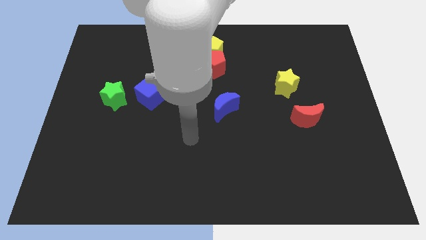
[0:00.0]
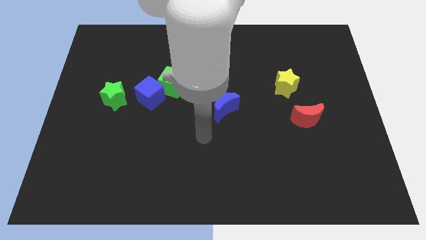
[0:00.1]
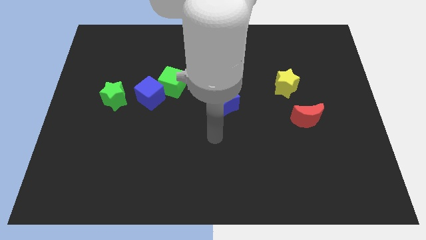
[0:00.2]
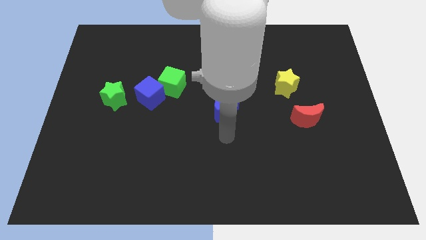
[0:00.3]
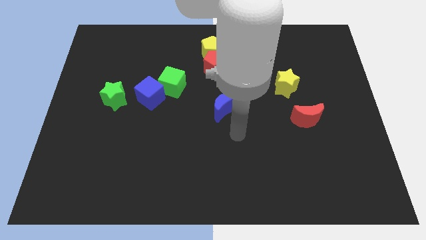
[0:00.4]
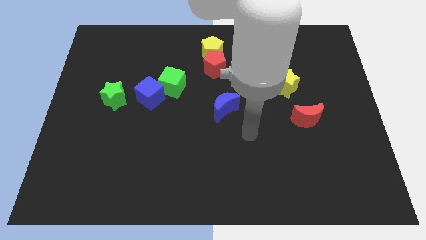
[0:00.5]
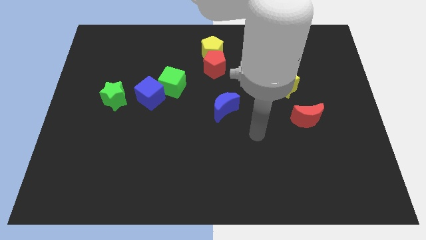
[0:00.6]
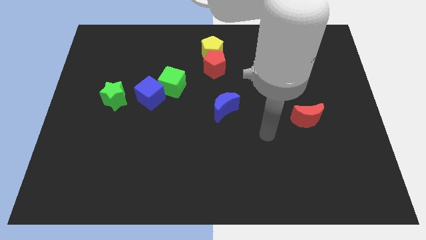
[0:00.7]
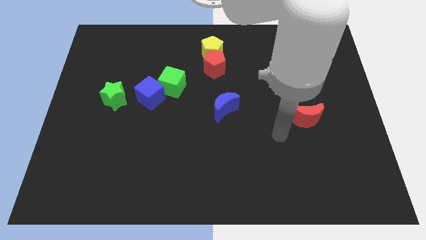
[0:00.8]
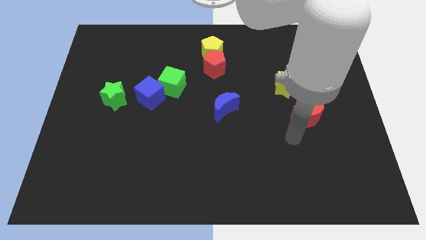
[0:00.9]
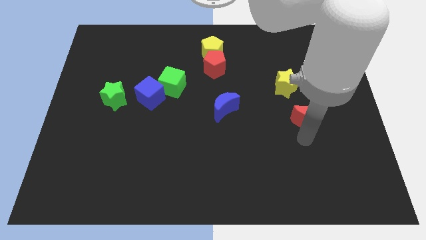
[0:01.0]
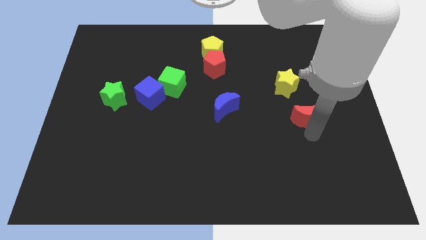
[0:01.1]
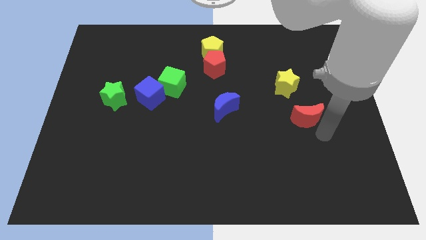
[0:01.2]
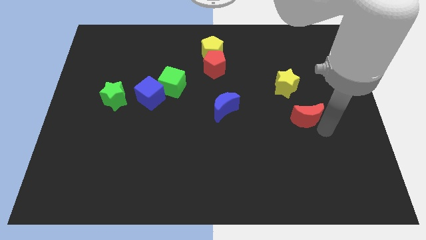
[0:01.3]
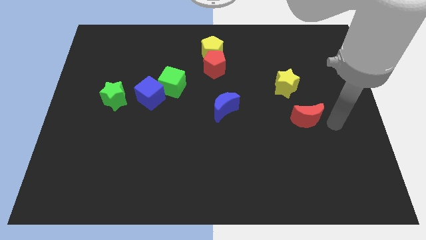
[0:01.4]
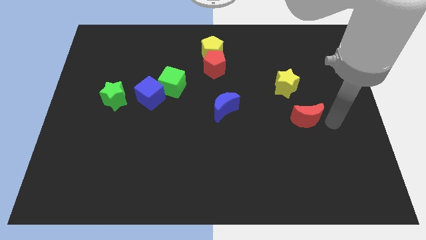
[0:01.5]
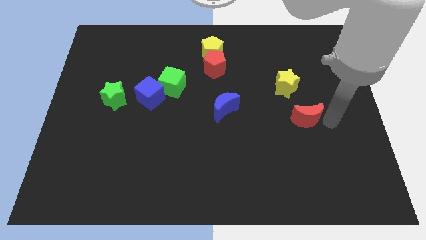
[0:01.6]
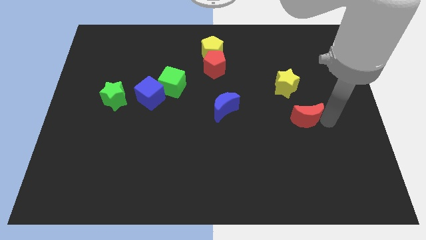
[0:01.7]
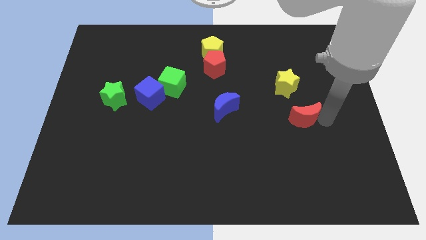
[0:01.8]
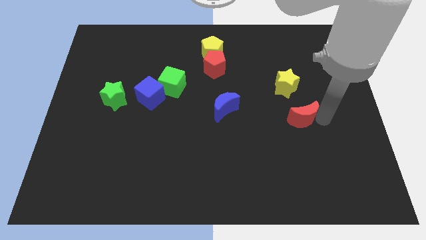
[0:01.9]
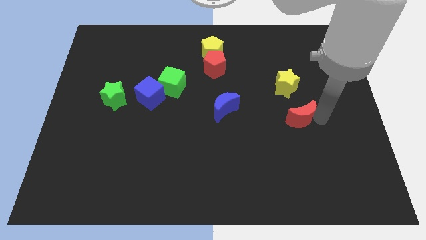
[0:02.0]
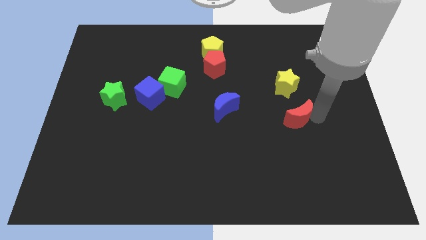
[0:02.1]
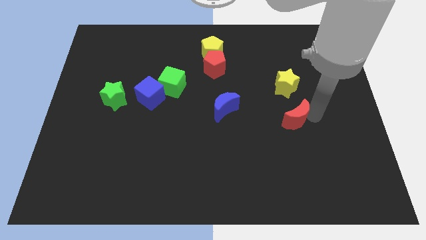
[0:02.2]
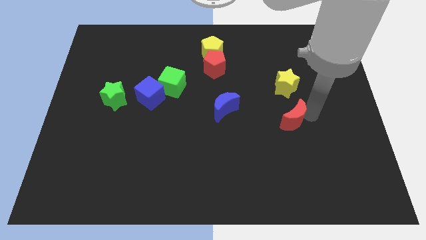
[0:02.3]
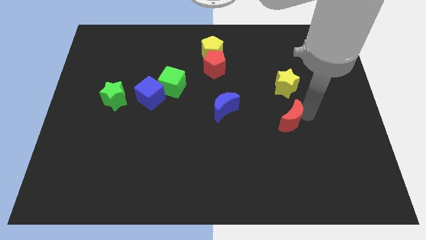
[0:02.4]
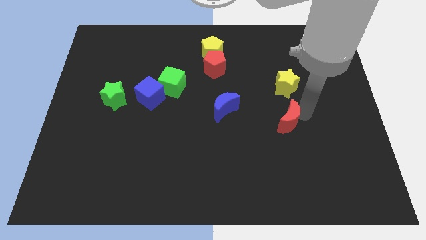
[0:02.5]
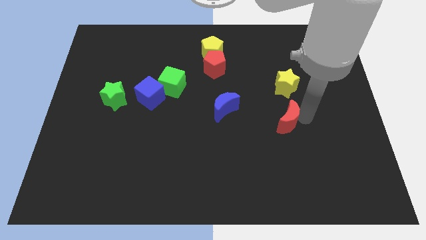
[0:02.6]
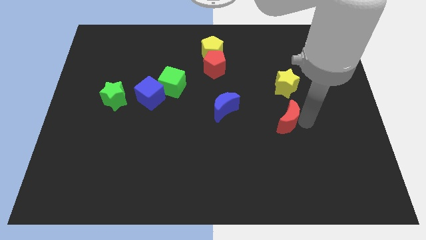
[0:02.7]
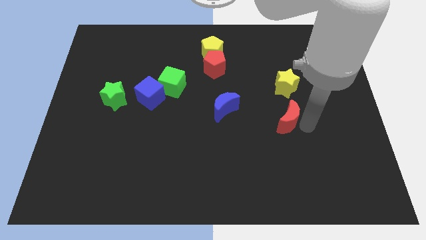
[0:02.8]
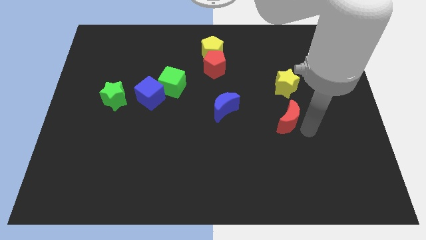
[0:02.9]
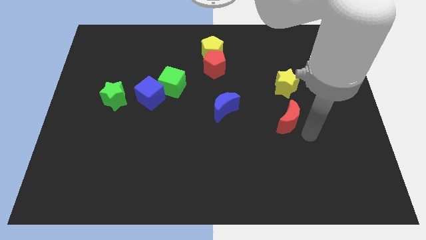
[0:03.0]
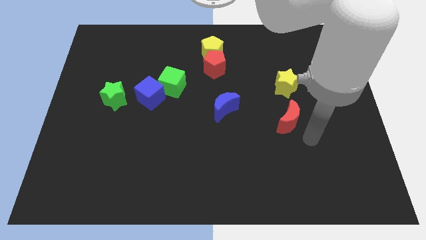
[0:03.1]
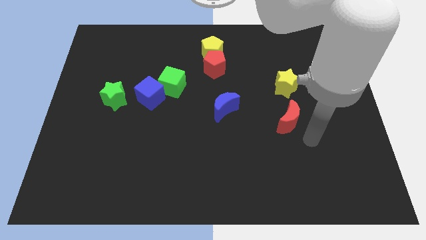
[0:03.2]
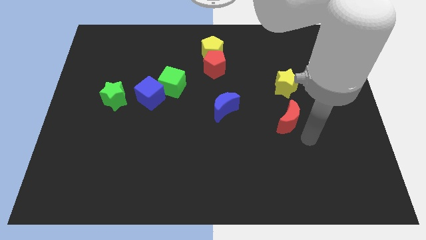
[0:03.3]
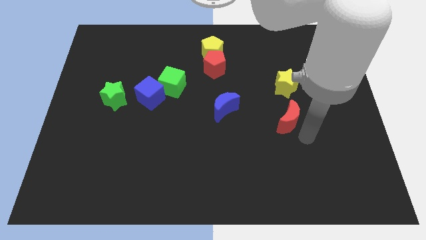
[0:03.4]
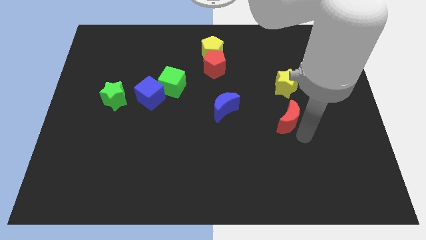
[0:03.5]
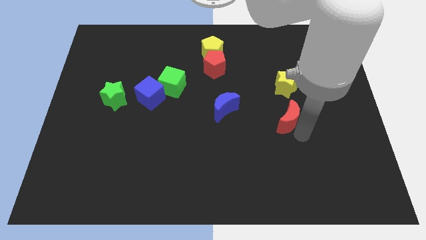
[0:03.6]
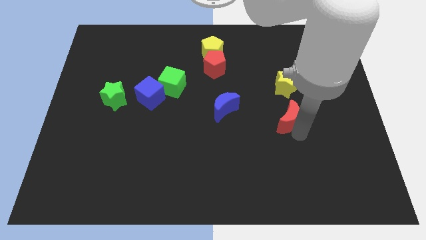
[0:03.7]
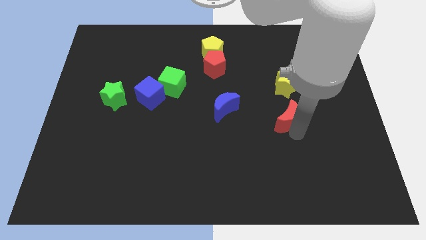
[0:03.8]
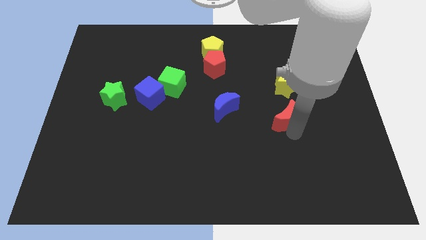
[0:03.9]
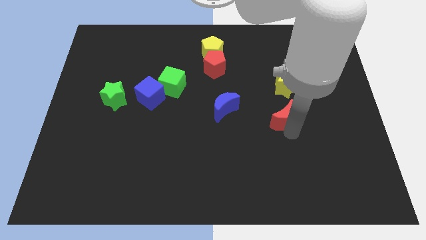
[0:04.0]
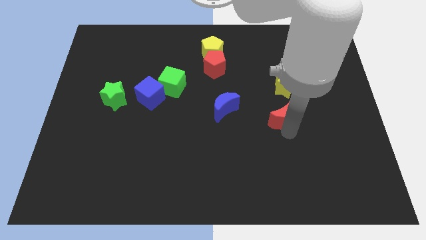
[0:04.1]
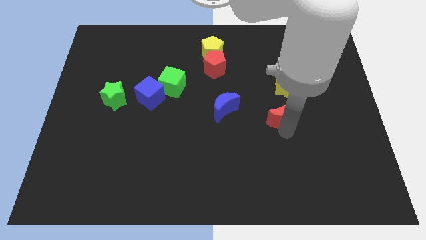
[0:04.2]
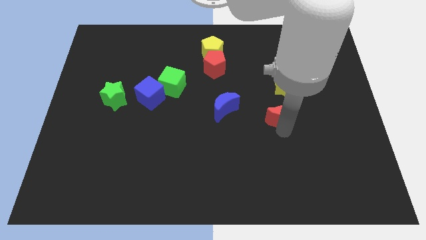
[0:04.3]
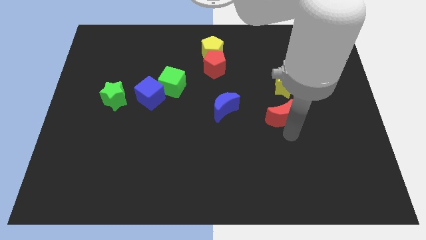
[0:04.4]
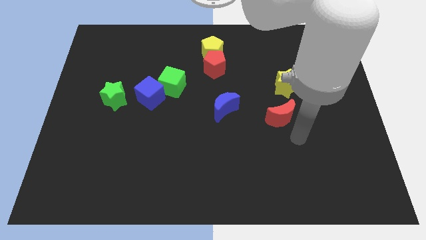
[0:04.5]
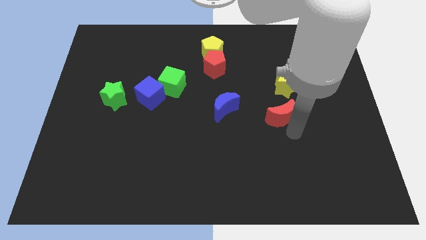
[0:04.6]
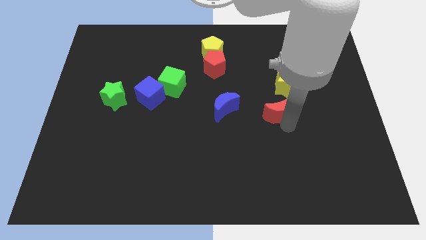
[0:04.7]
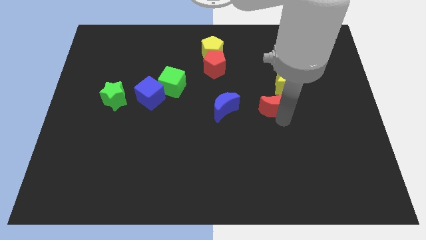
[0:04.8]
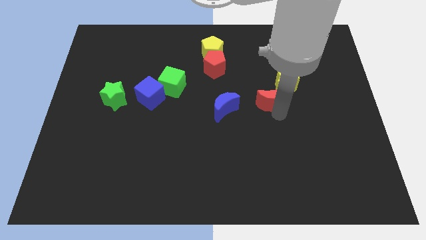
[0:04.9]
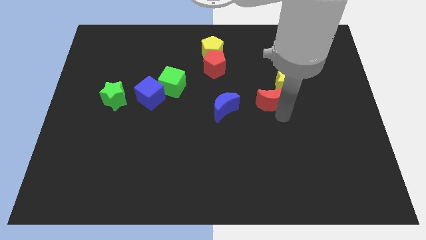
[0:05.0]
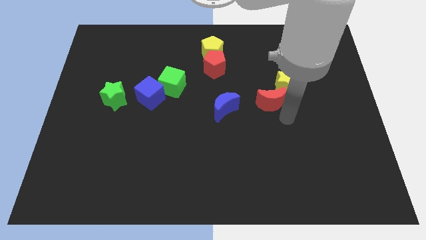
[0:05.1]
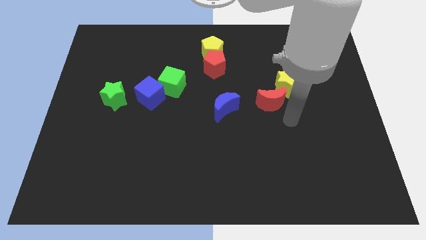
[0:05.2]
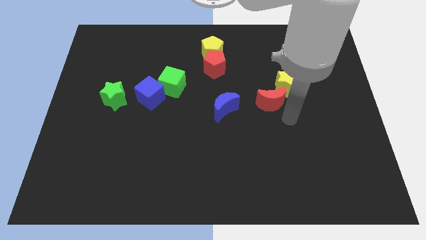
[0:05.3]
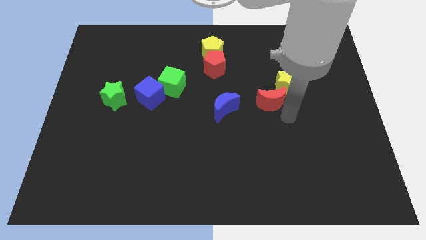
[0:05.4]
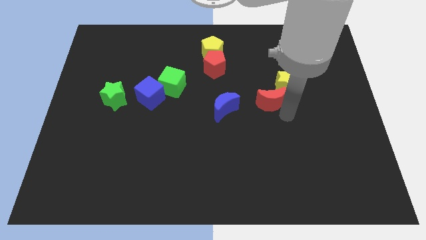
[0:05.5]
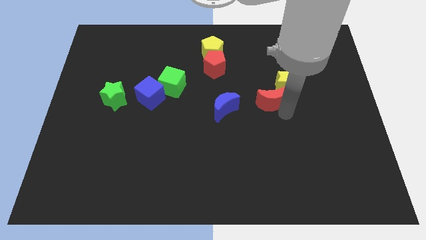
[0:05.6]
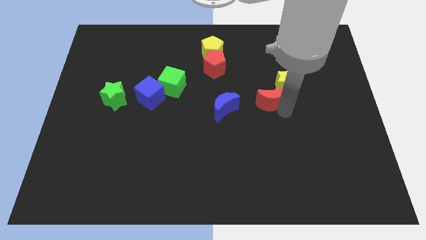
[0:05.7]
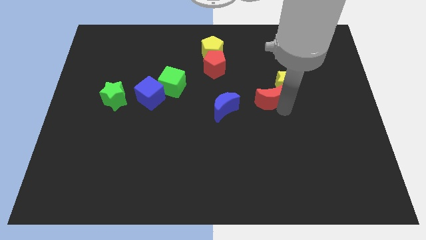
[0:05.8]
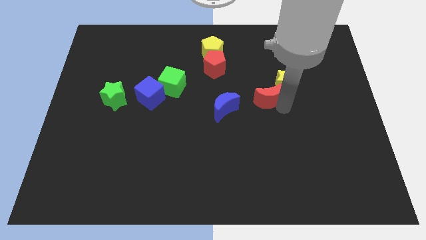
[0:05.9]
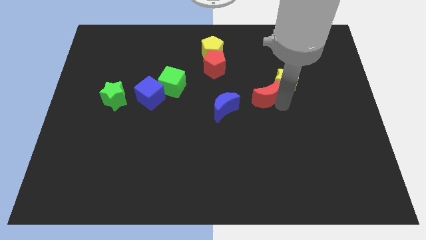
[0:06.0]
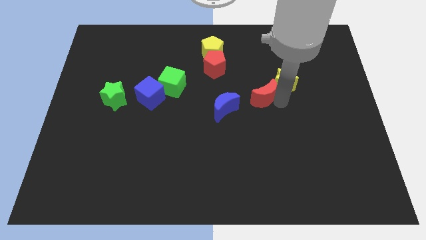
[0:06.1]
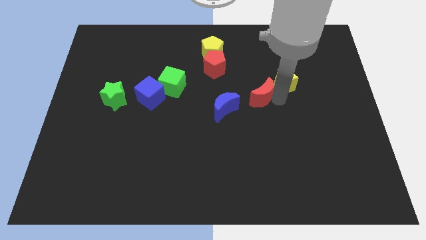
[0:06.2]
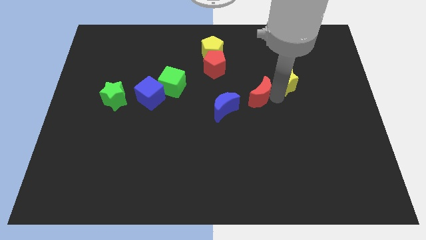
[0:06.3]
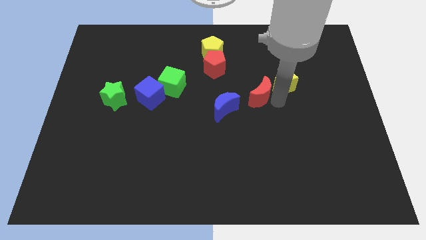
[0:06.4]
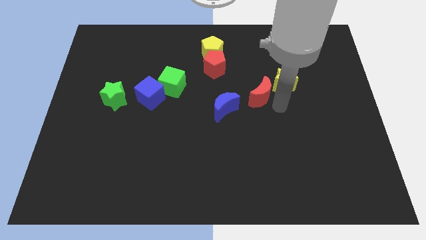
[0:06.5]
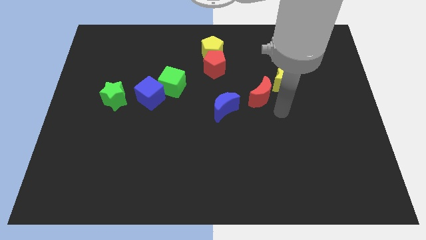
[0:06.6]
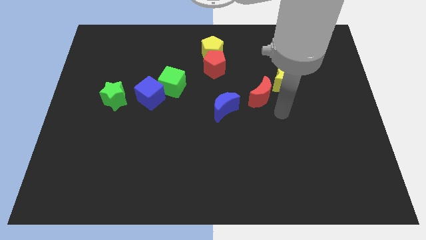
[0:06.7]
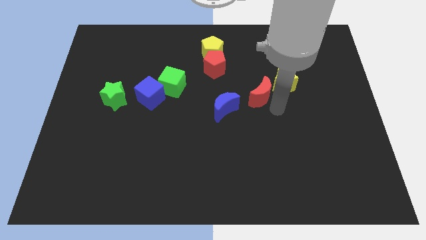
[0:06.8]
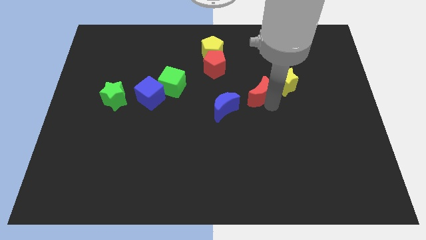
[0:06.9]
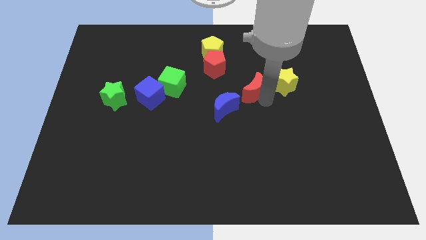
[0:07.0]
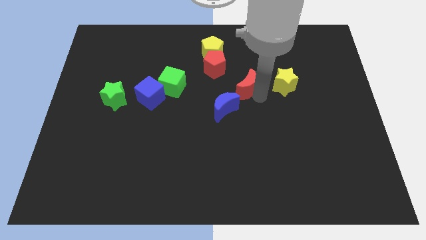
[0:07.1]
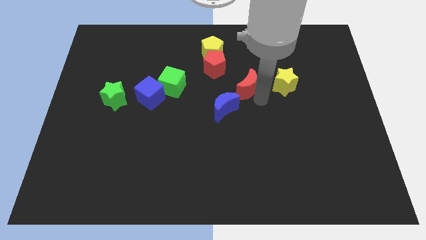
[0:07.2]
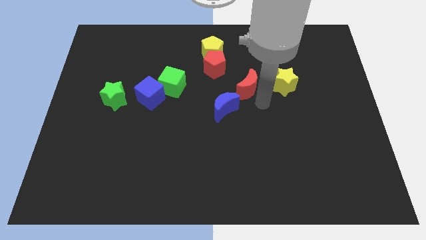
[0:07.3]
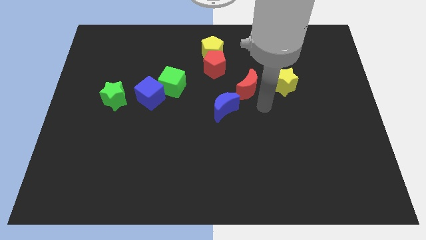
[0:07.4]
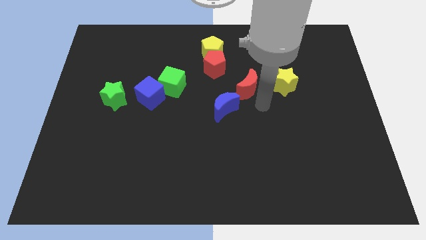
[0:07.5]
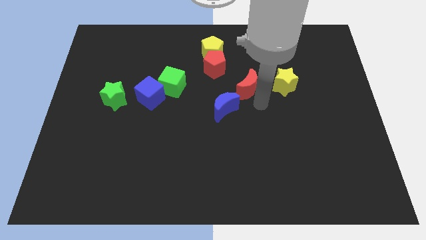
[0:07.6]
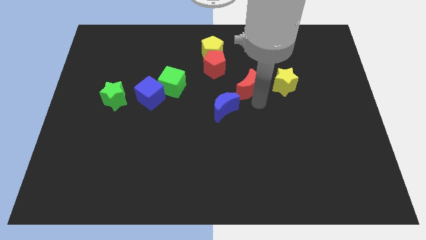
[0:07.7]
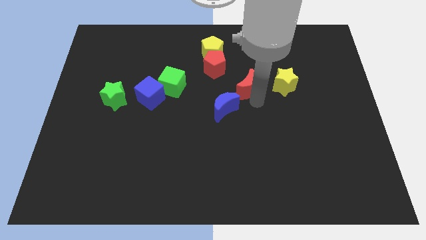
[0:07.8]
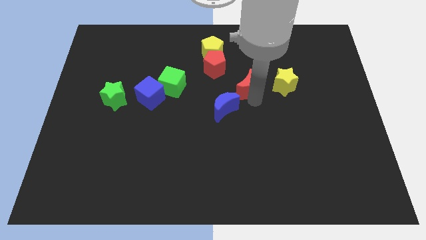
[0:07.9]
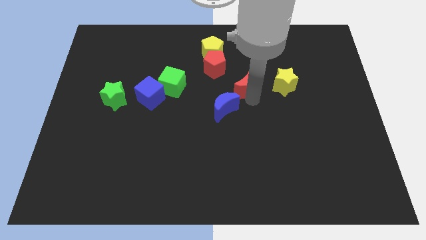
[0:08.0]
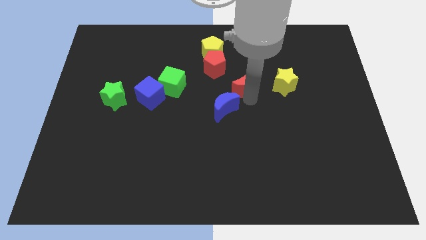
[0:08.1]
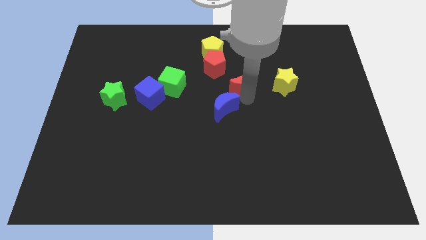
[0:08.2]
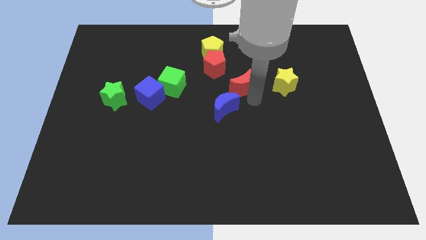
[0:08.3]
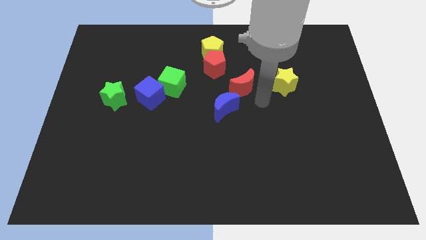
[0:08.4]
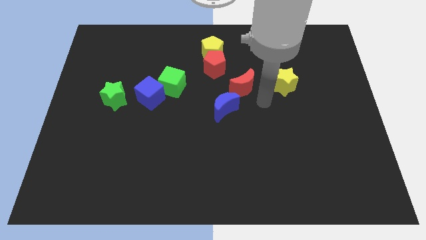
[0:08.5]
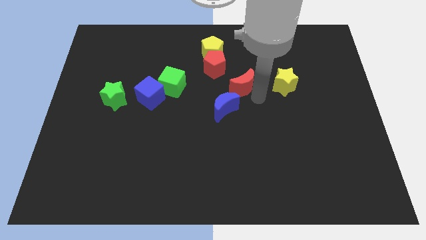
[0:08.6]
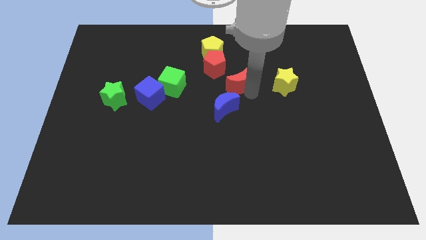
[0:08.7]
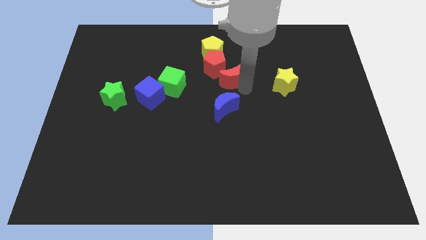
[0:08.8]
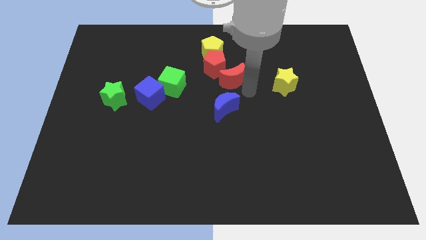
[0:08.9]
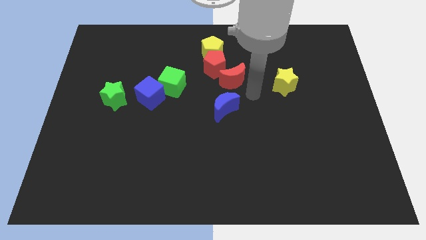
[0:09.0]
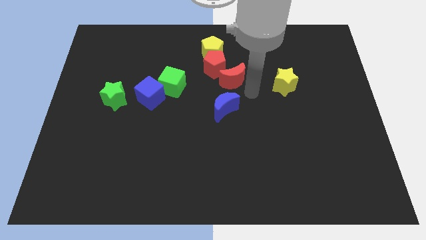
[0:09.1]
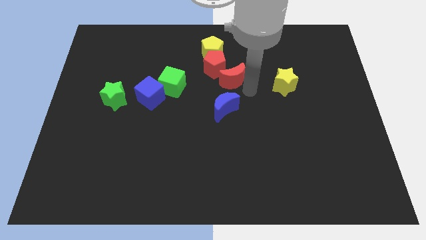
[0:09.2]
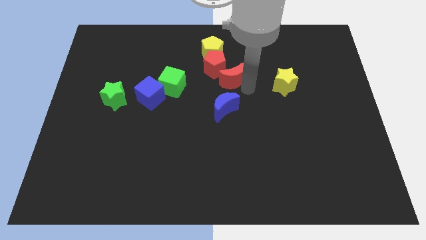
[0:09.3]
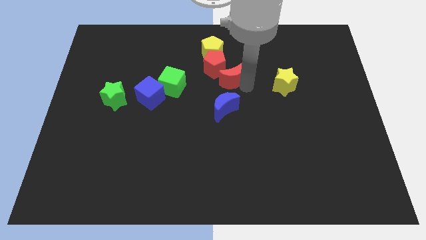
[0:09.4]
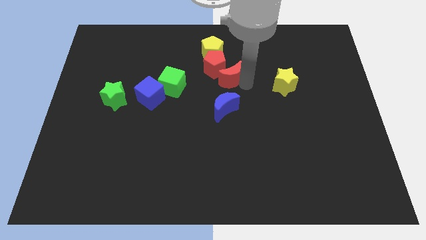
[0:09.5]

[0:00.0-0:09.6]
push the red moon close to the red pentagon
